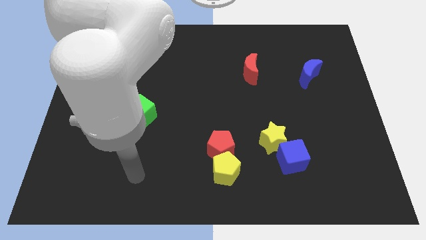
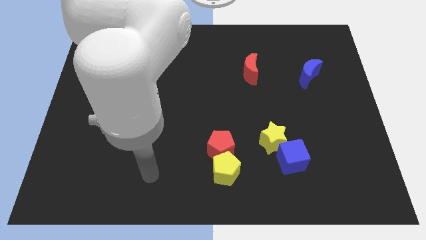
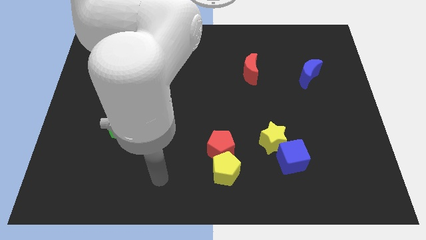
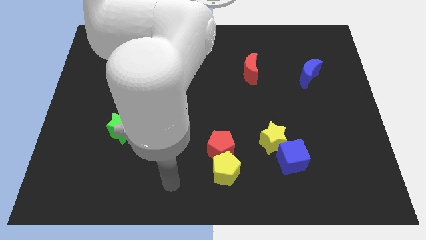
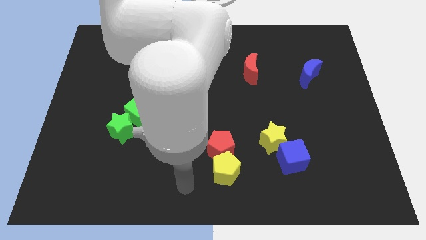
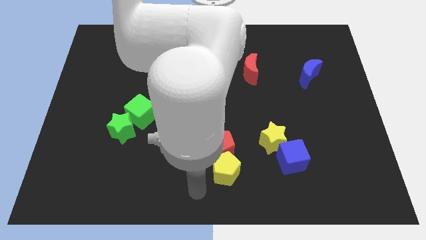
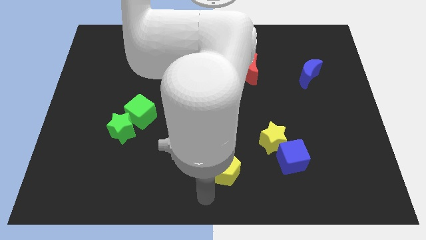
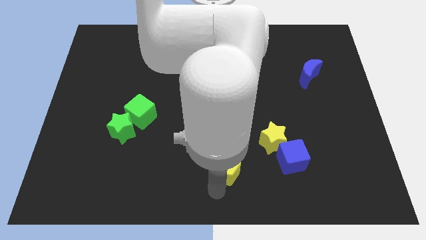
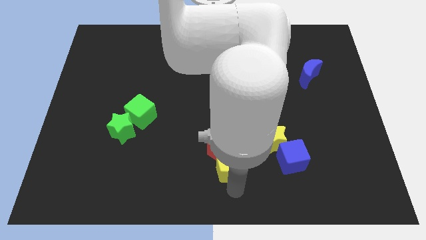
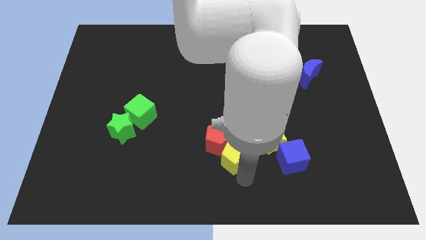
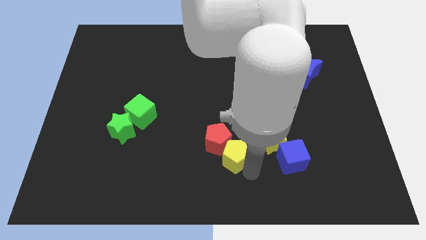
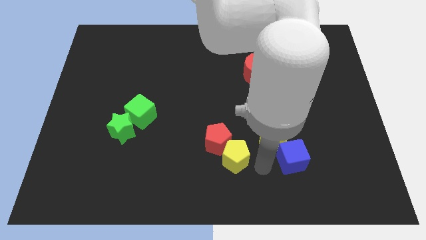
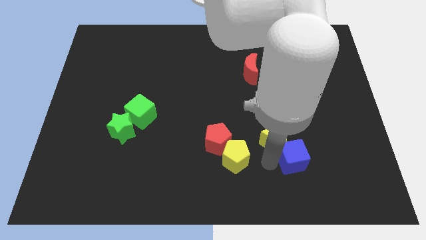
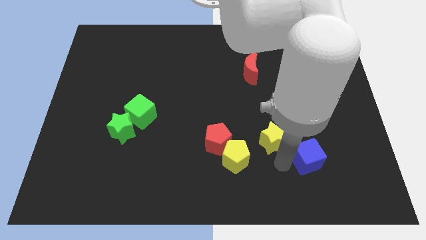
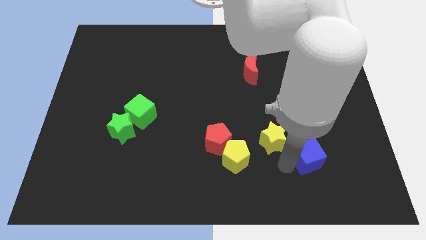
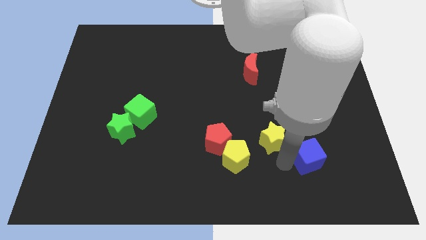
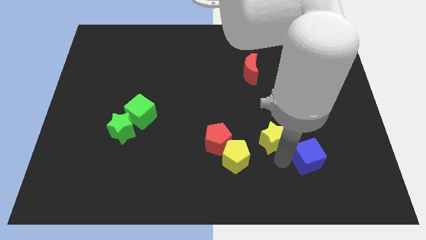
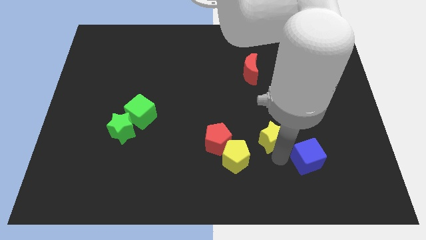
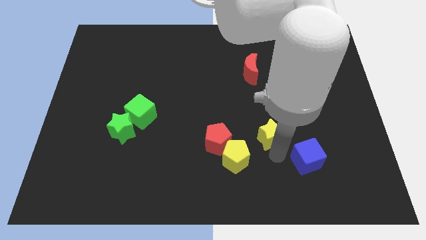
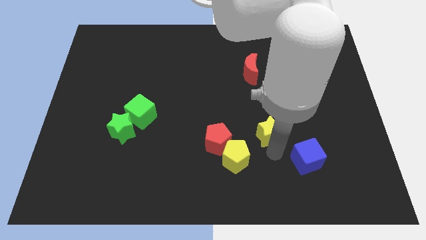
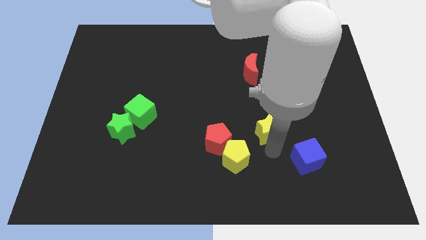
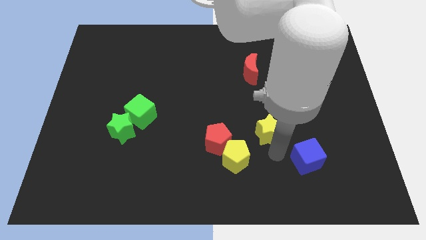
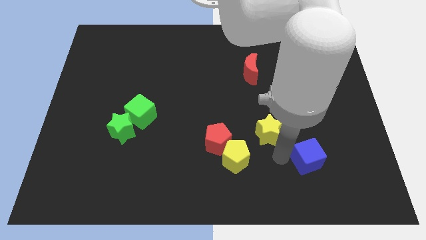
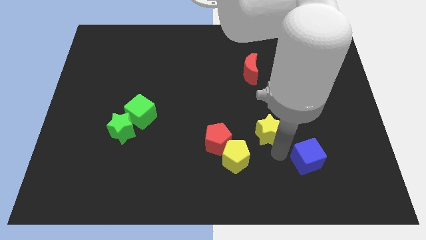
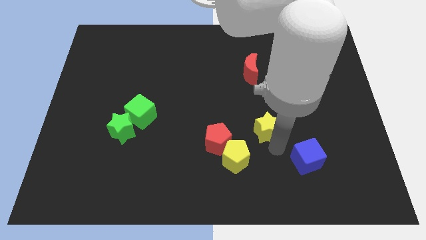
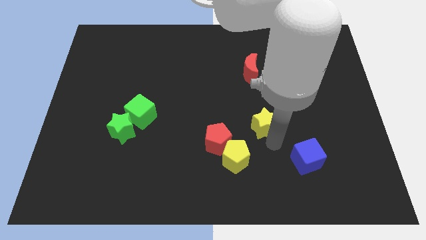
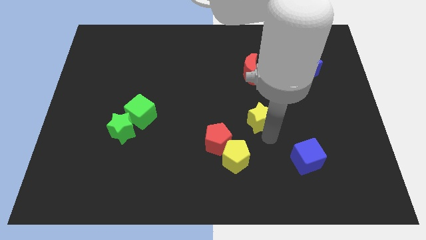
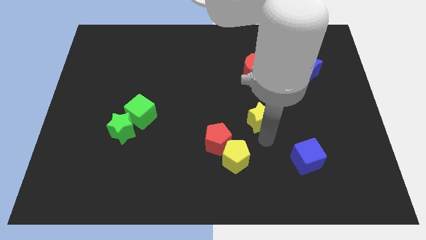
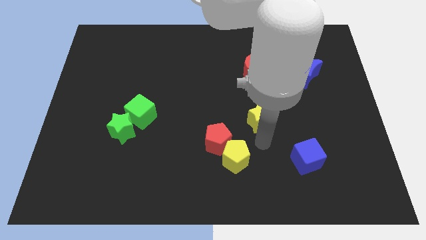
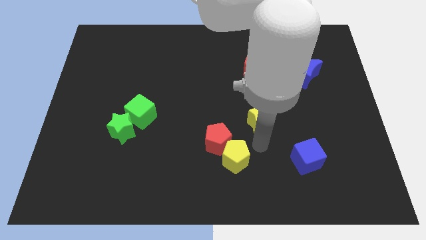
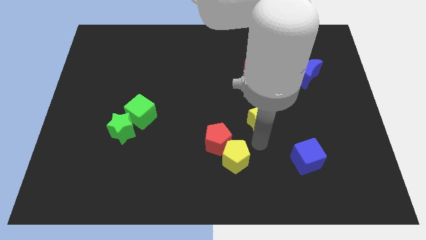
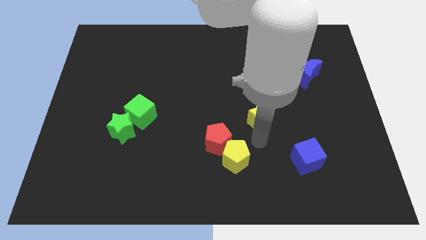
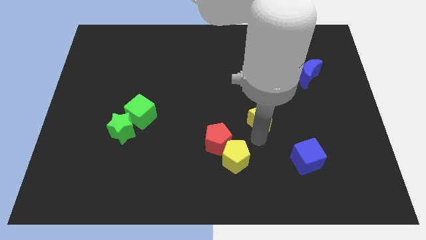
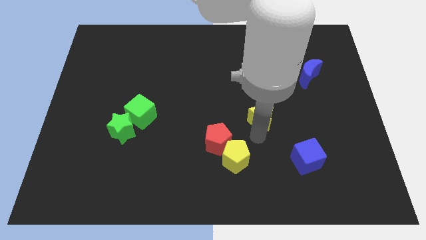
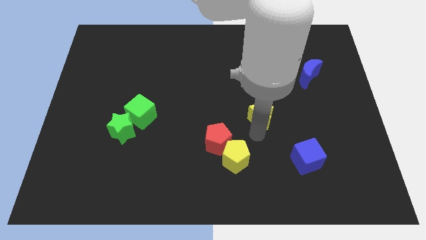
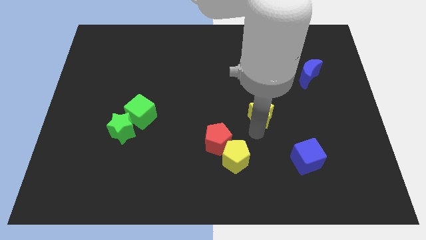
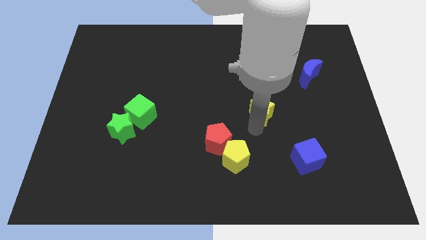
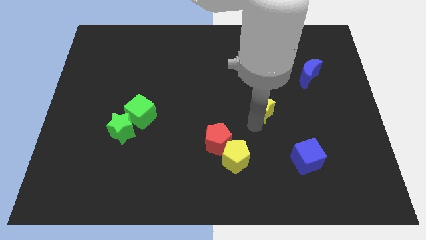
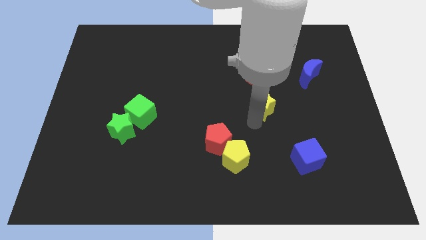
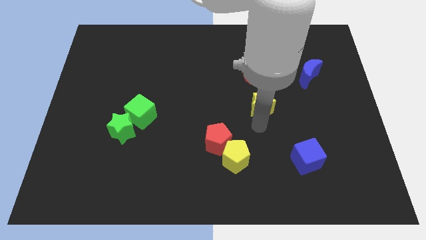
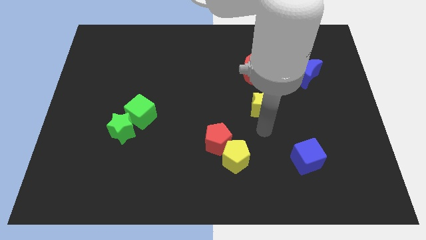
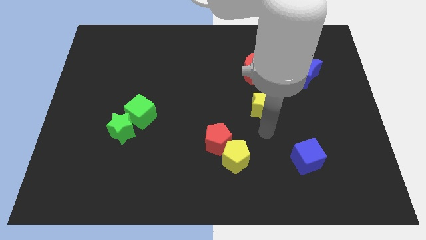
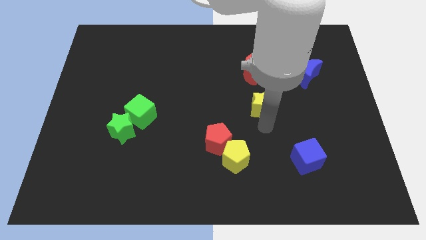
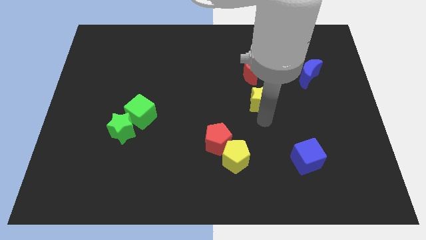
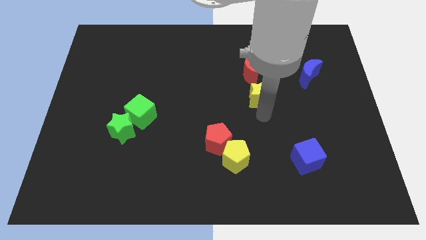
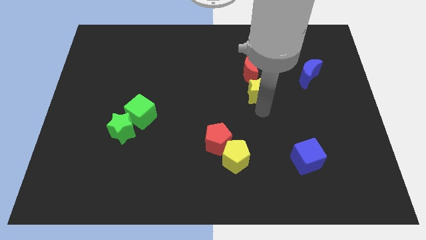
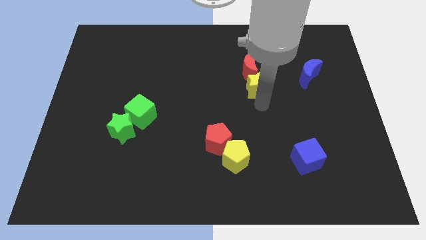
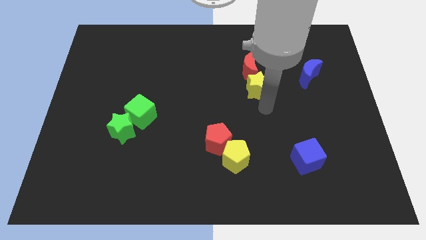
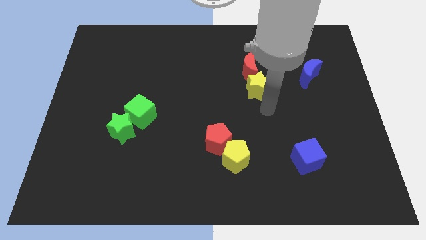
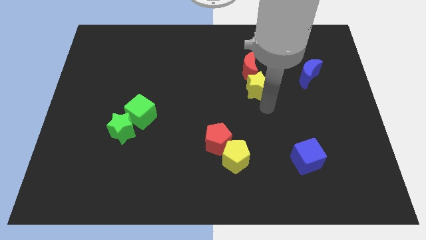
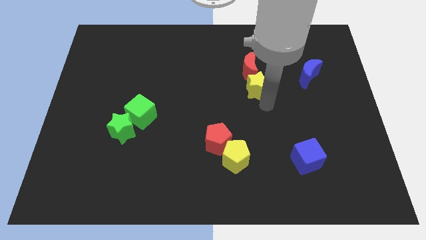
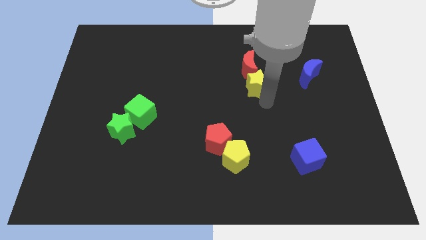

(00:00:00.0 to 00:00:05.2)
put the yellow star close to the red moon

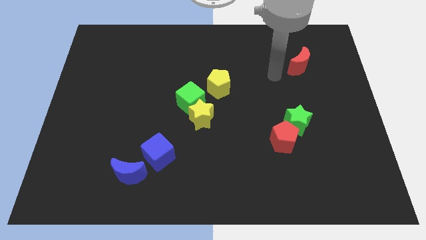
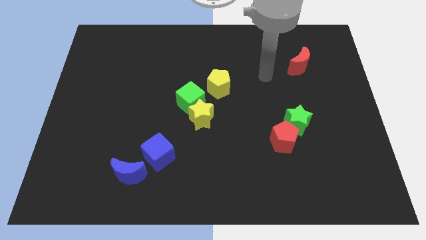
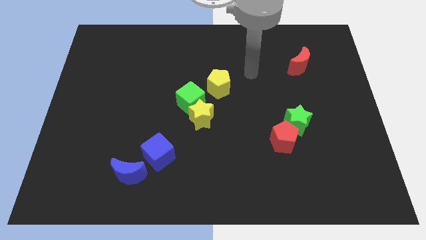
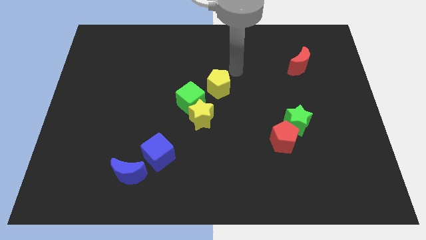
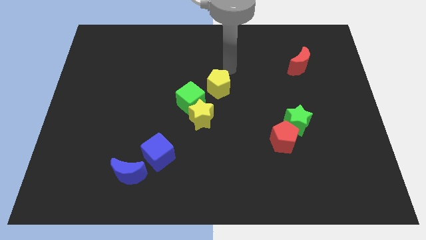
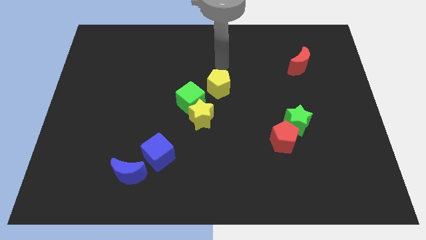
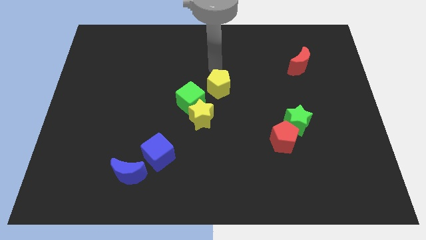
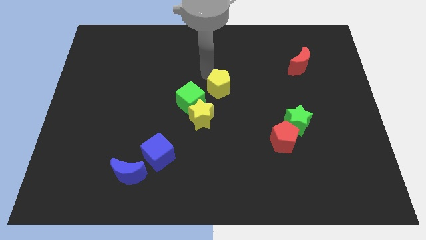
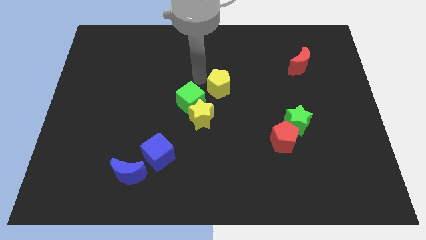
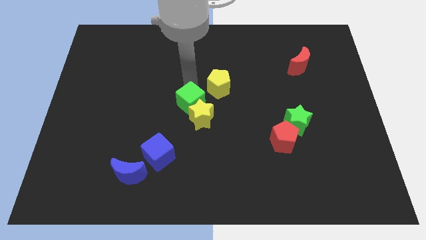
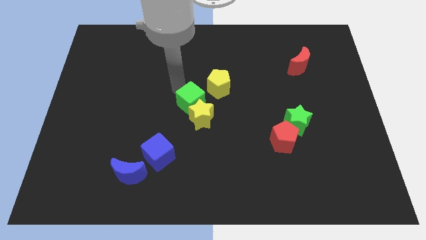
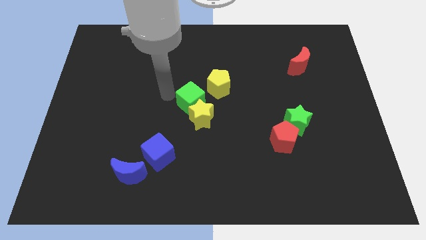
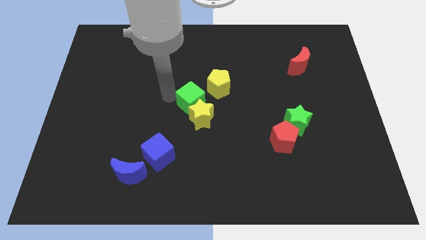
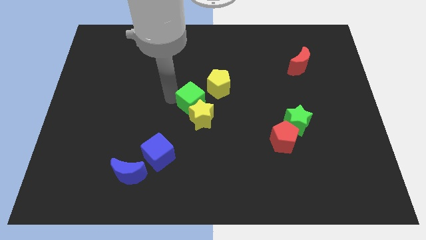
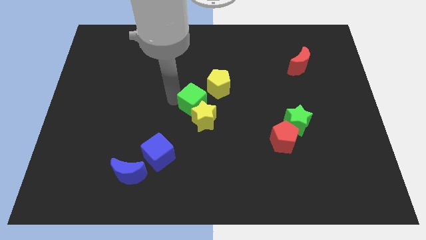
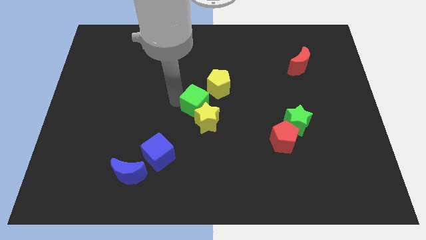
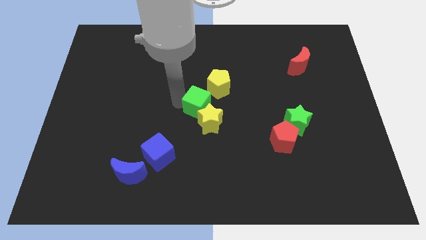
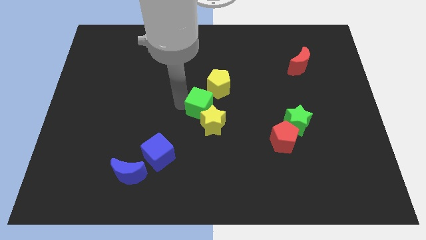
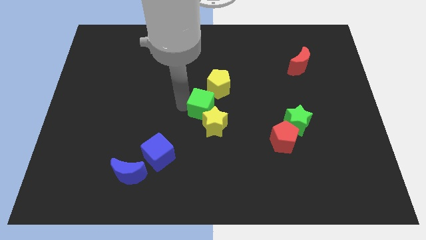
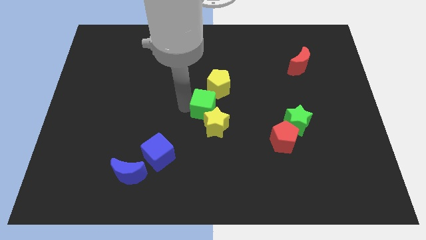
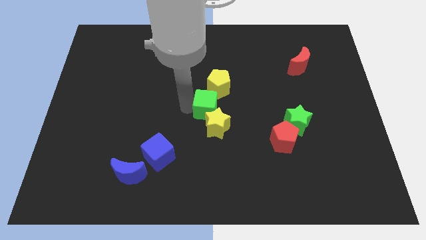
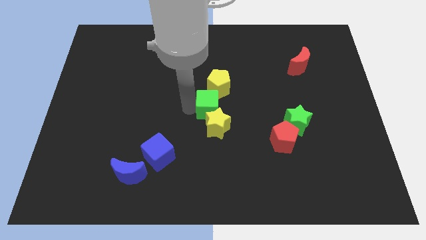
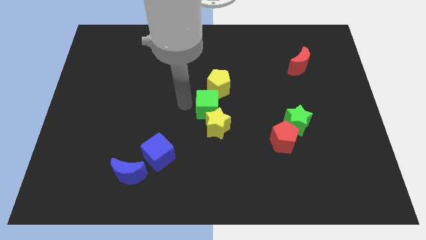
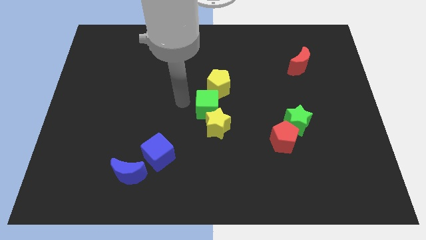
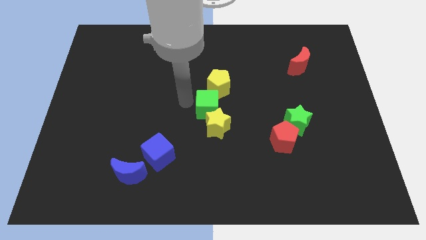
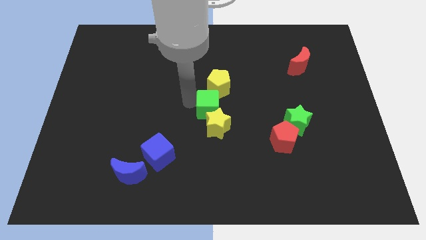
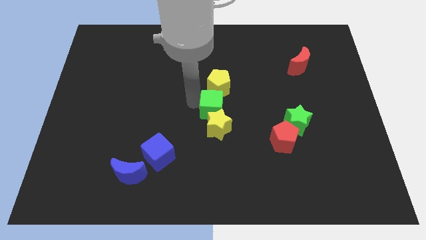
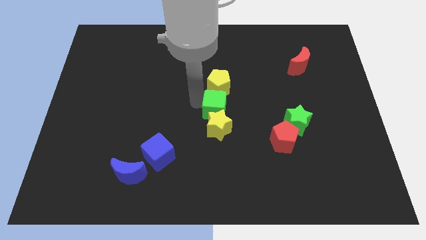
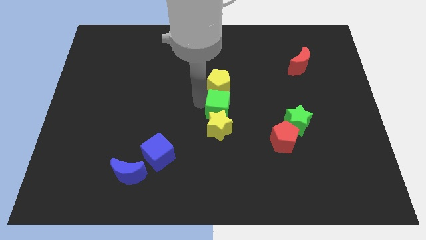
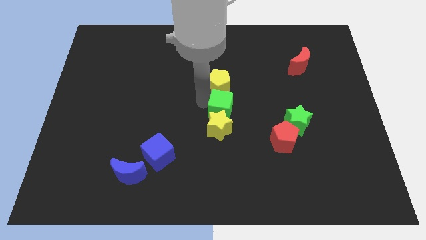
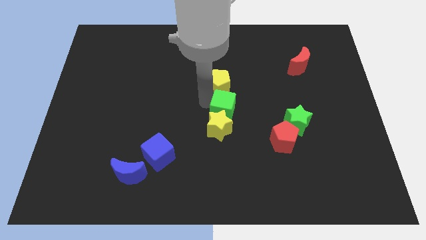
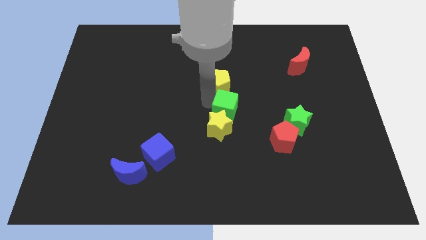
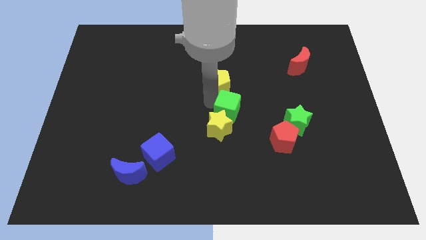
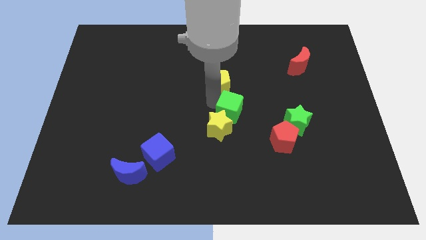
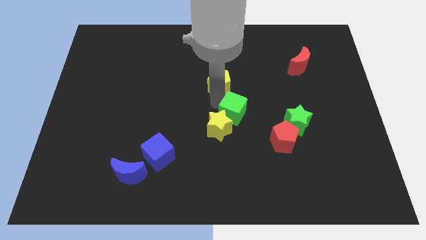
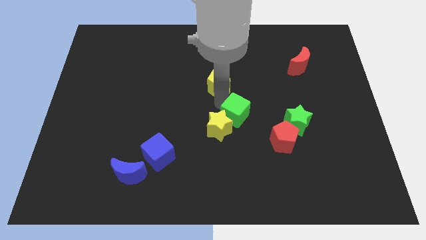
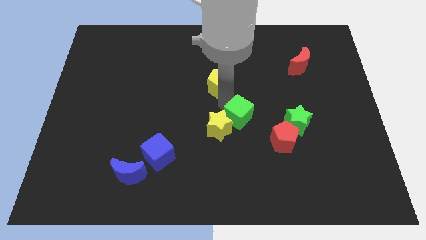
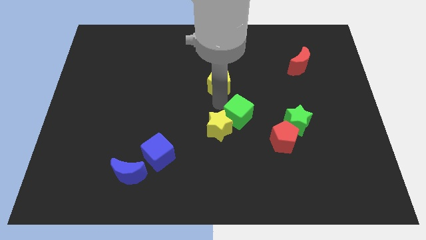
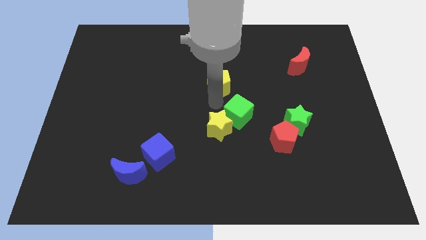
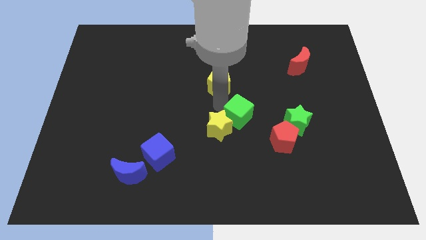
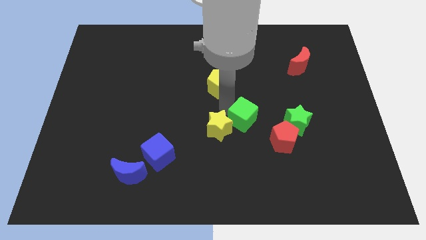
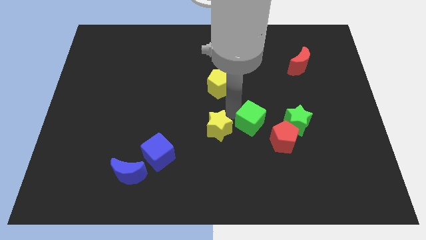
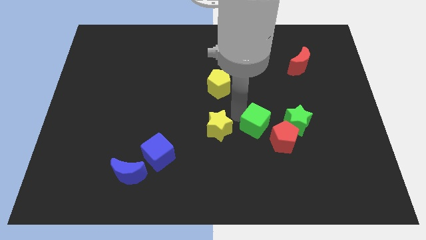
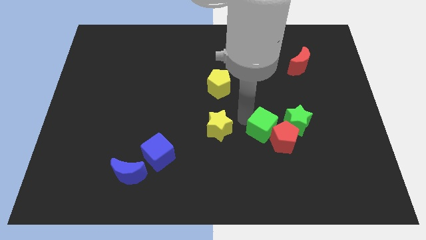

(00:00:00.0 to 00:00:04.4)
put the green cube next to the red pentagon
